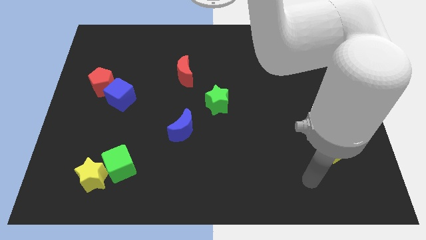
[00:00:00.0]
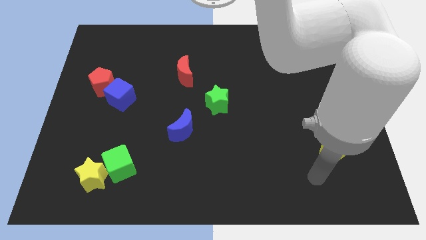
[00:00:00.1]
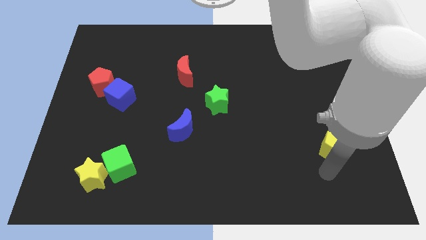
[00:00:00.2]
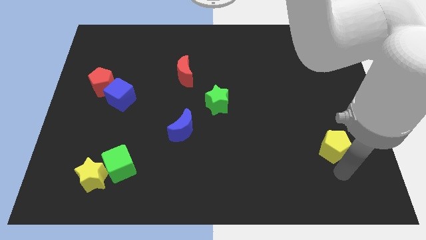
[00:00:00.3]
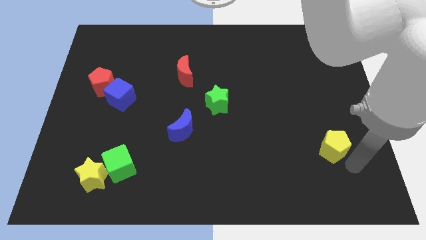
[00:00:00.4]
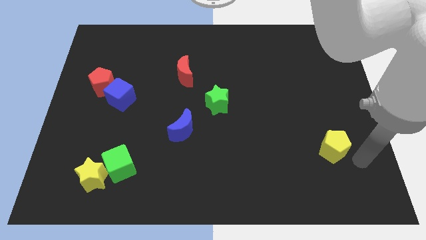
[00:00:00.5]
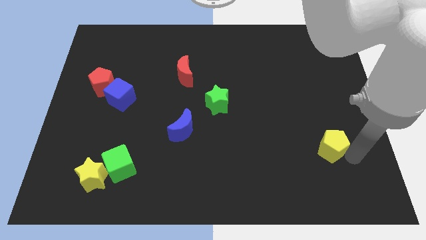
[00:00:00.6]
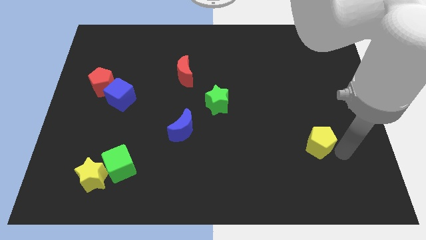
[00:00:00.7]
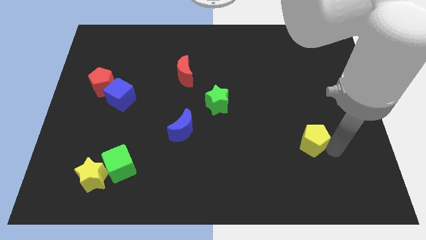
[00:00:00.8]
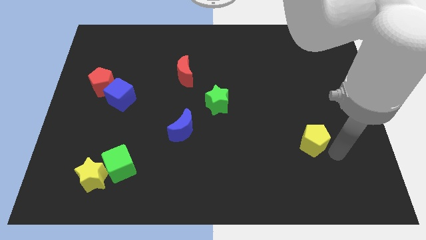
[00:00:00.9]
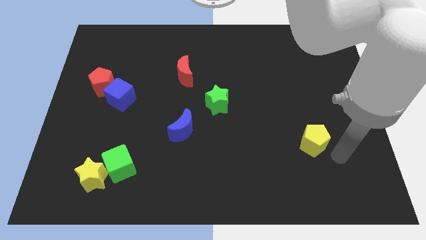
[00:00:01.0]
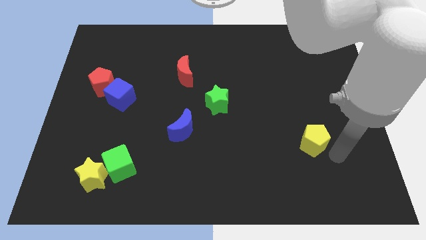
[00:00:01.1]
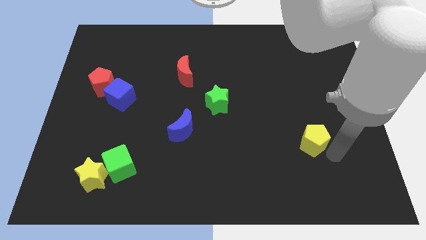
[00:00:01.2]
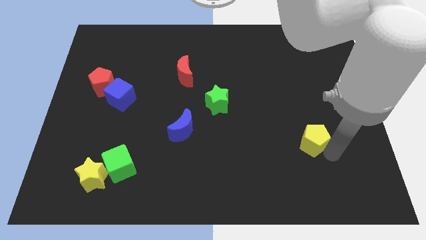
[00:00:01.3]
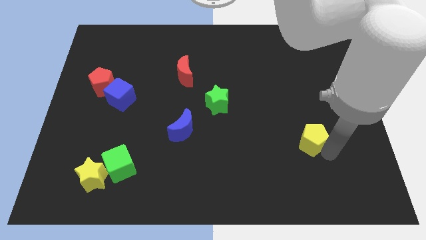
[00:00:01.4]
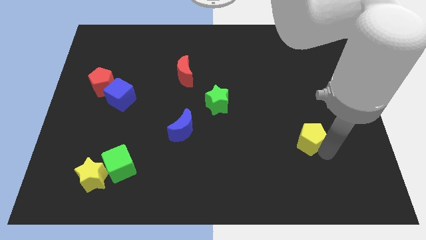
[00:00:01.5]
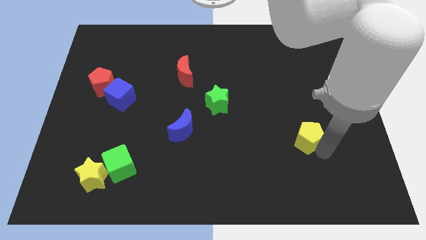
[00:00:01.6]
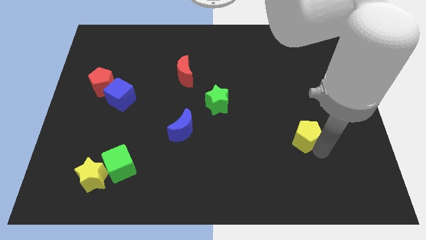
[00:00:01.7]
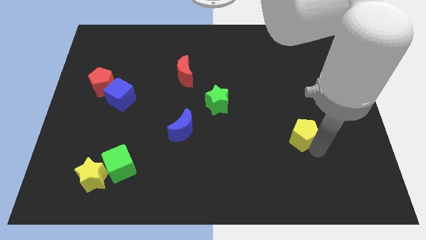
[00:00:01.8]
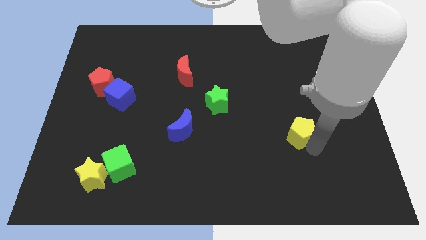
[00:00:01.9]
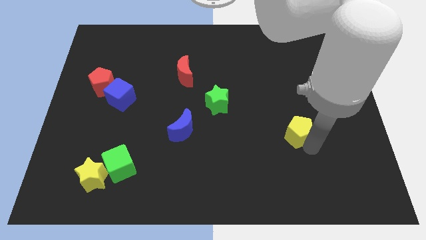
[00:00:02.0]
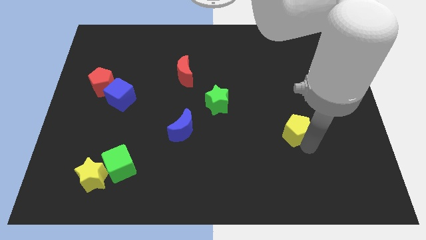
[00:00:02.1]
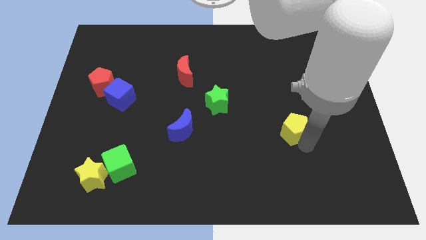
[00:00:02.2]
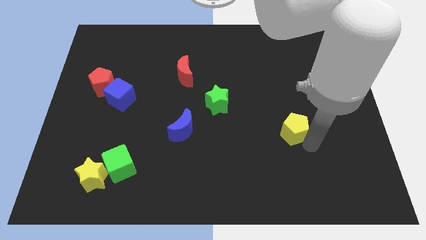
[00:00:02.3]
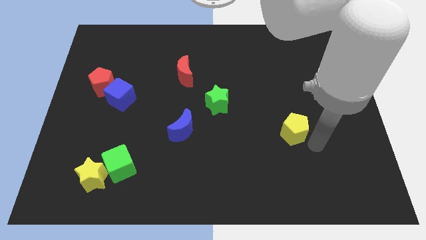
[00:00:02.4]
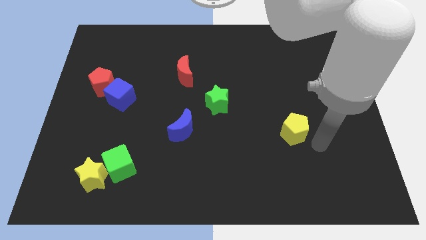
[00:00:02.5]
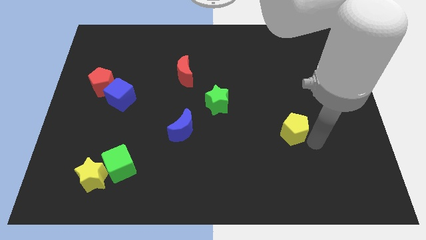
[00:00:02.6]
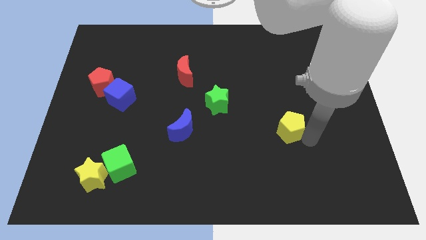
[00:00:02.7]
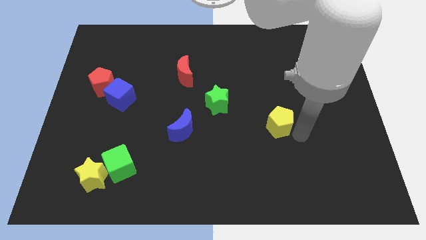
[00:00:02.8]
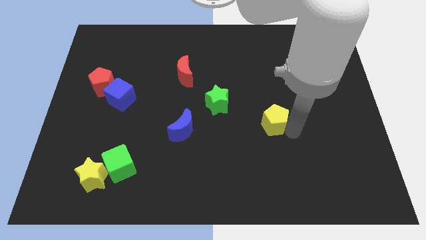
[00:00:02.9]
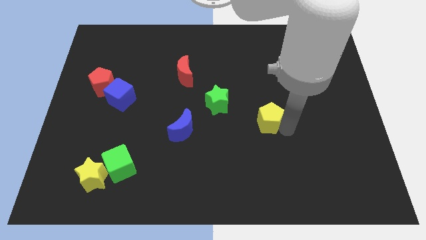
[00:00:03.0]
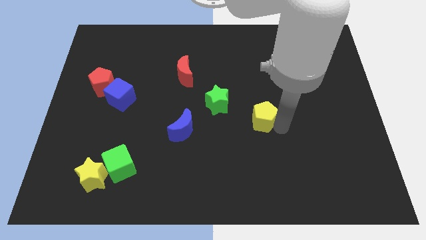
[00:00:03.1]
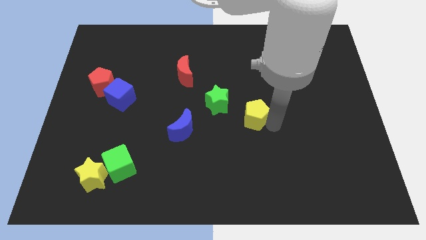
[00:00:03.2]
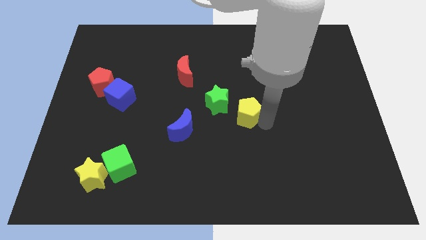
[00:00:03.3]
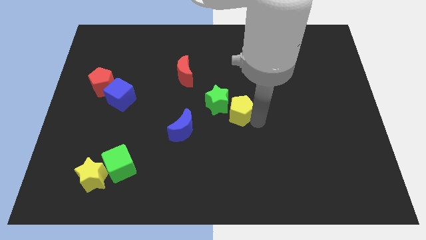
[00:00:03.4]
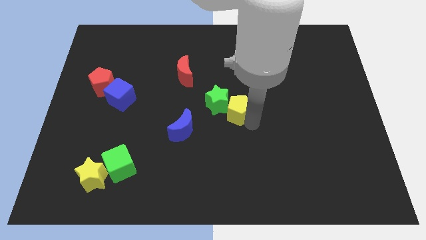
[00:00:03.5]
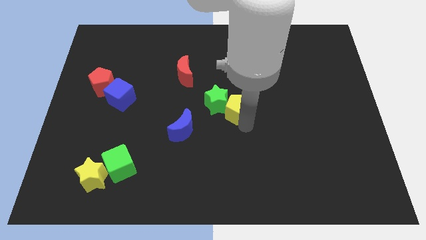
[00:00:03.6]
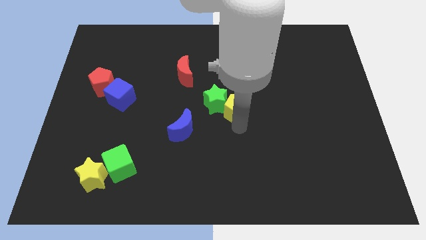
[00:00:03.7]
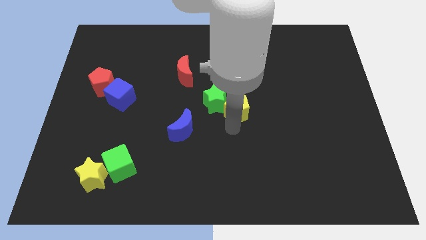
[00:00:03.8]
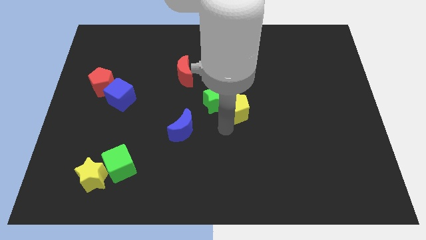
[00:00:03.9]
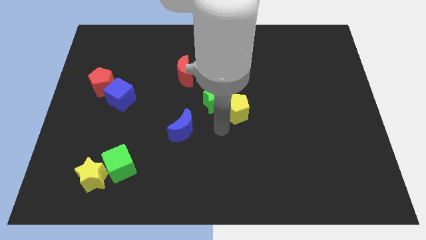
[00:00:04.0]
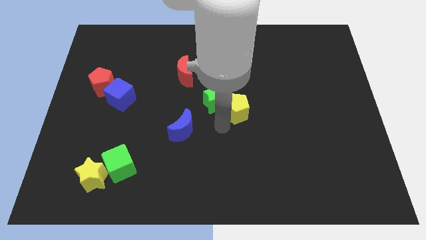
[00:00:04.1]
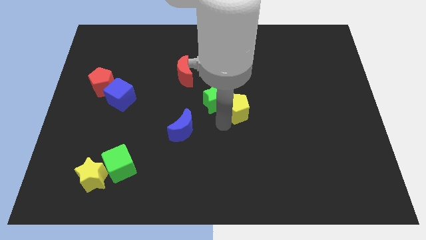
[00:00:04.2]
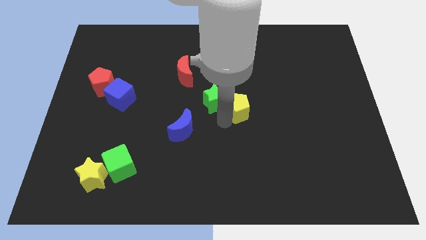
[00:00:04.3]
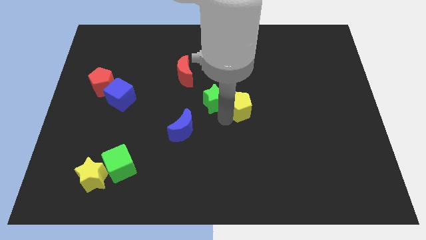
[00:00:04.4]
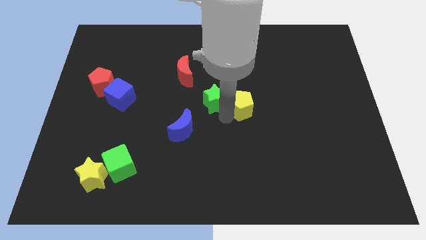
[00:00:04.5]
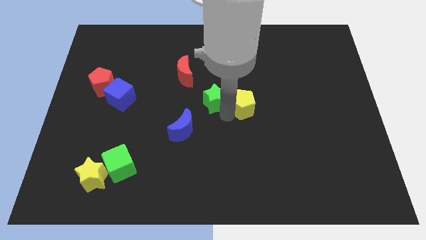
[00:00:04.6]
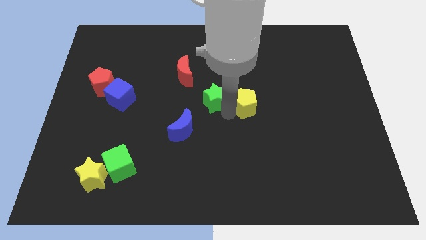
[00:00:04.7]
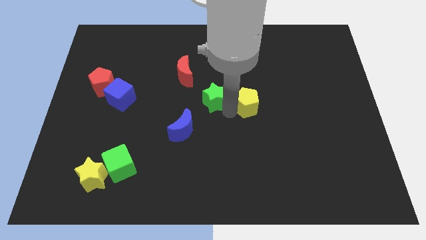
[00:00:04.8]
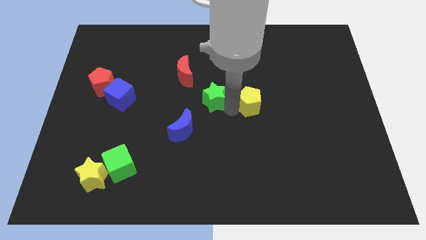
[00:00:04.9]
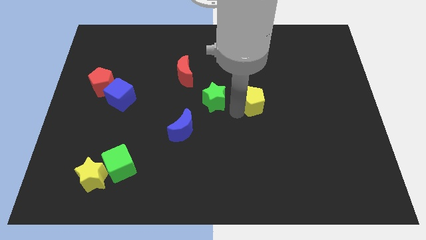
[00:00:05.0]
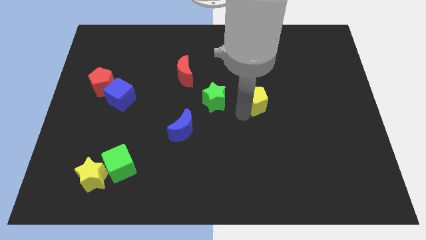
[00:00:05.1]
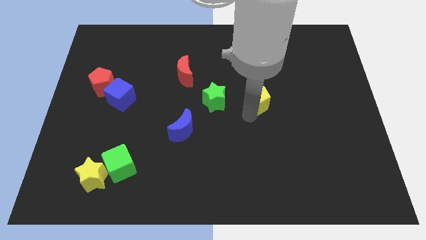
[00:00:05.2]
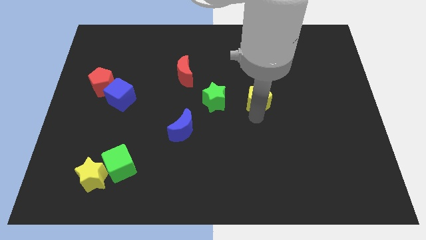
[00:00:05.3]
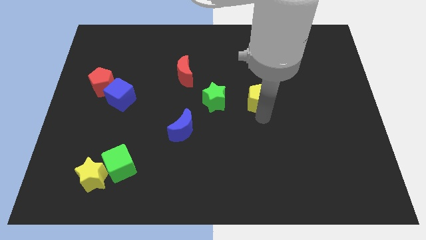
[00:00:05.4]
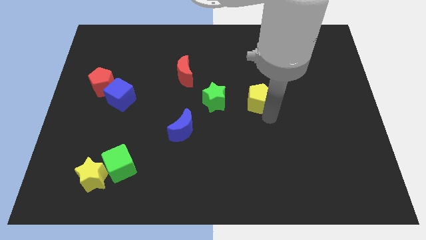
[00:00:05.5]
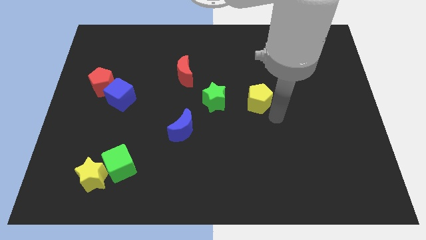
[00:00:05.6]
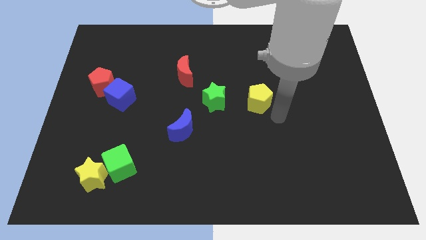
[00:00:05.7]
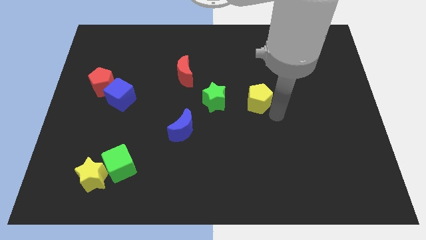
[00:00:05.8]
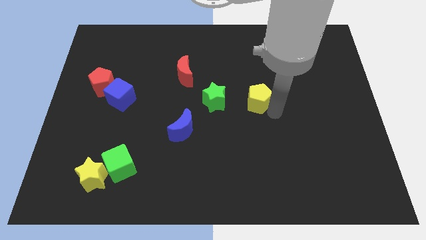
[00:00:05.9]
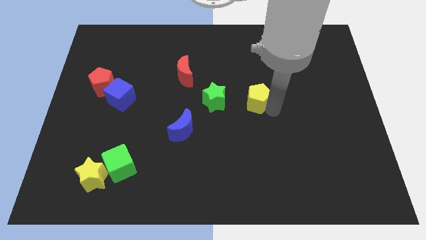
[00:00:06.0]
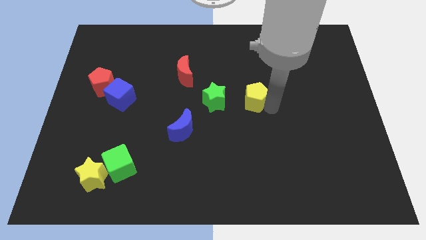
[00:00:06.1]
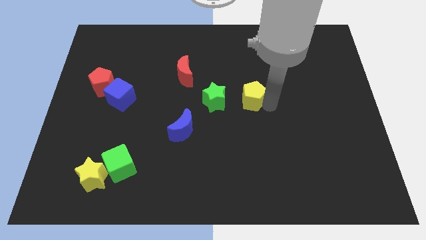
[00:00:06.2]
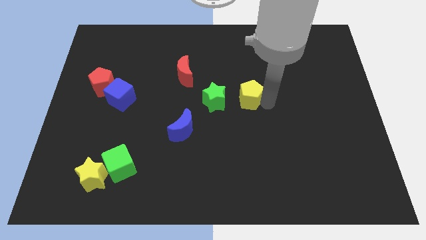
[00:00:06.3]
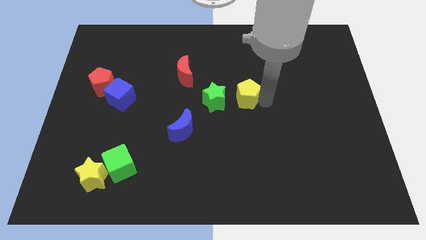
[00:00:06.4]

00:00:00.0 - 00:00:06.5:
slide the yellow pentagon to the top right side of the green star
